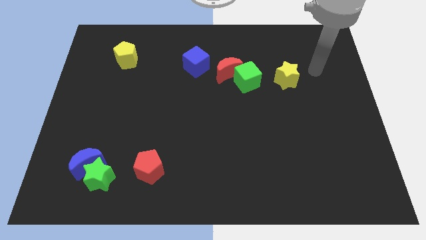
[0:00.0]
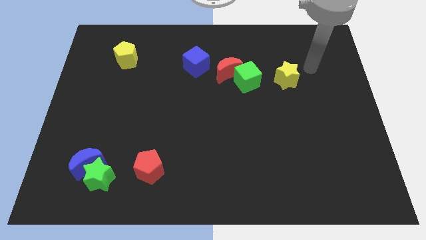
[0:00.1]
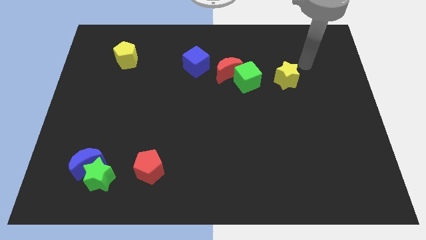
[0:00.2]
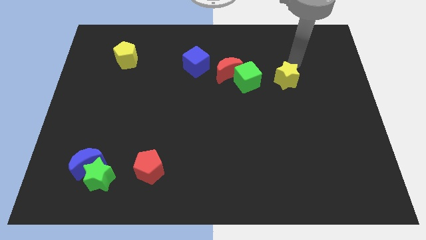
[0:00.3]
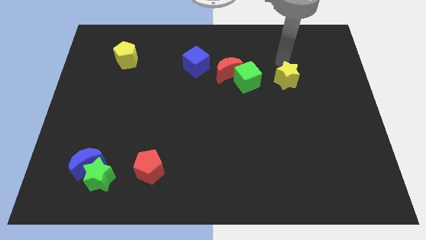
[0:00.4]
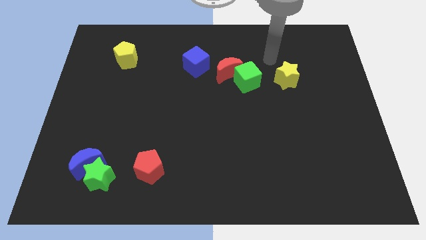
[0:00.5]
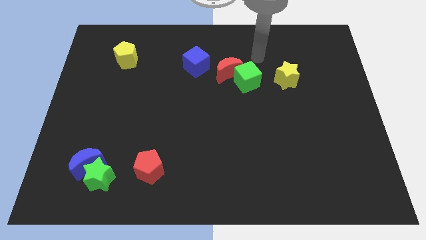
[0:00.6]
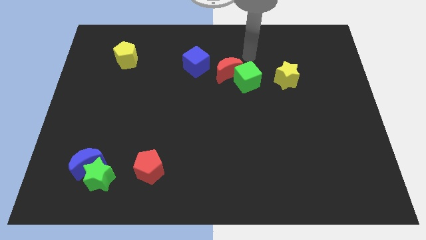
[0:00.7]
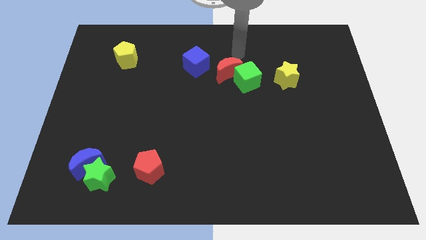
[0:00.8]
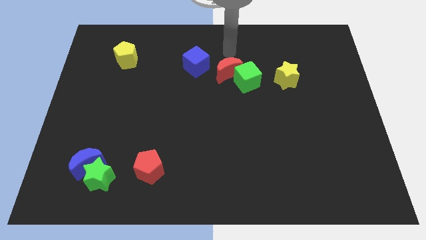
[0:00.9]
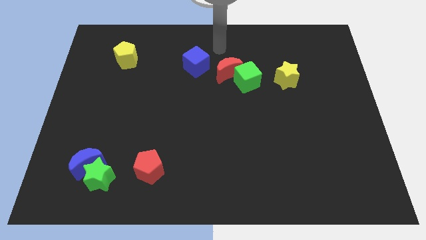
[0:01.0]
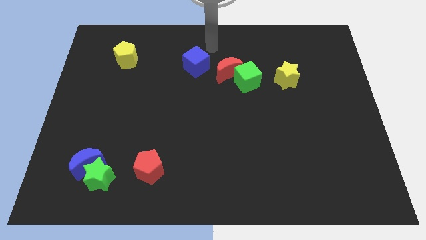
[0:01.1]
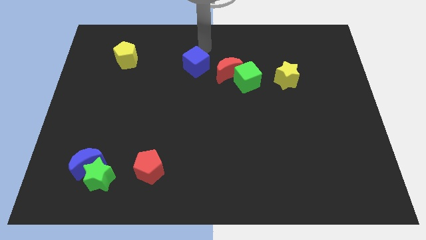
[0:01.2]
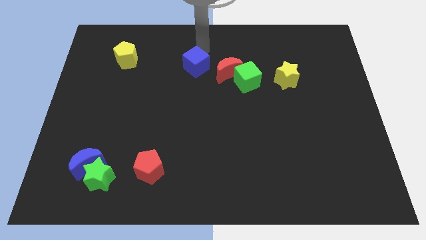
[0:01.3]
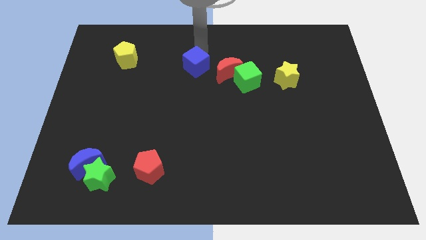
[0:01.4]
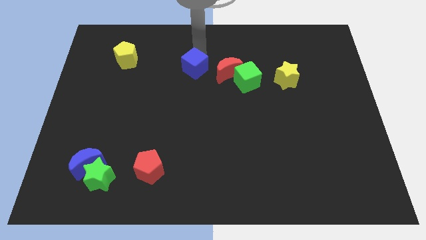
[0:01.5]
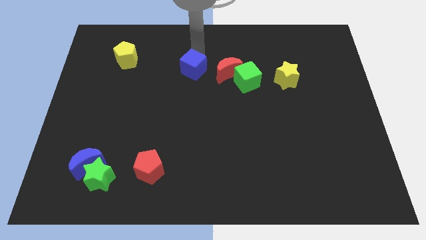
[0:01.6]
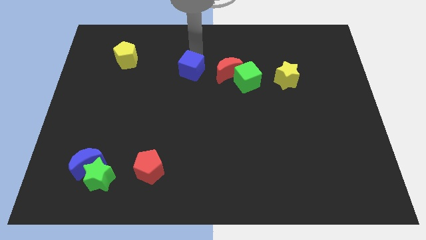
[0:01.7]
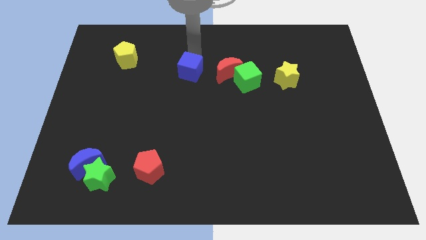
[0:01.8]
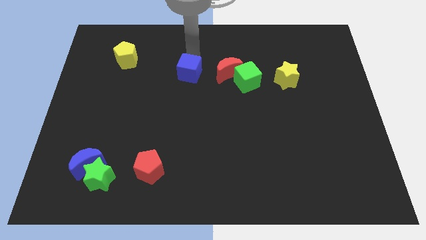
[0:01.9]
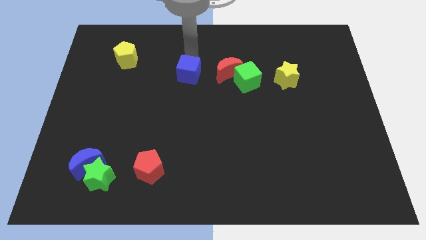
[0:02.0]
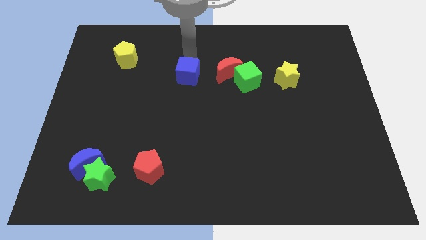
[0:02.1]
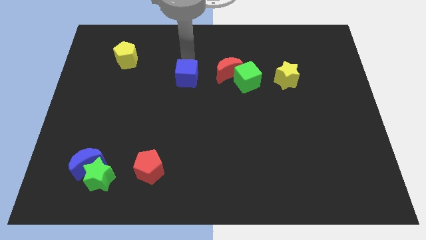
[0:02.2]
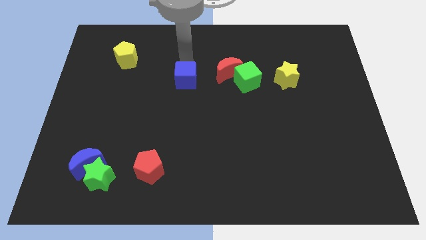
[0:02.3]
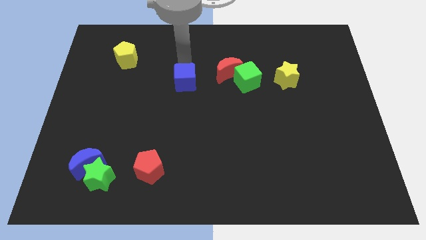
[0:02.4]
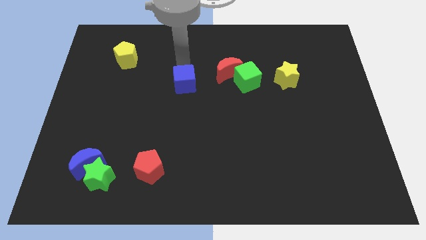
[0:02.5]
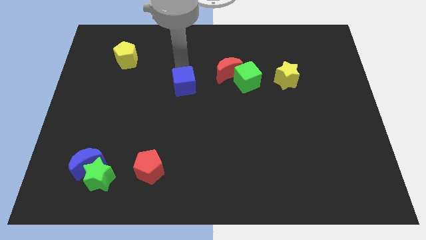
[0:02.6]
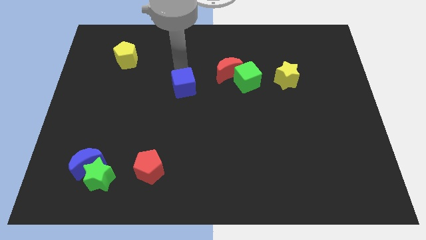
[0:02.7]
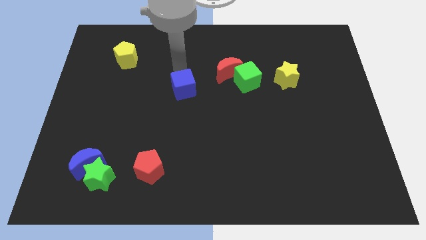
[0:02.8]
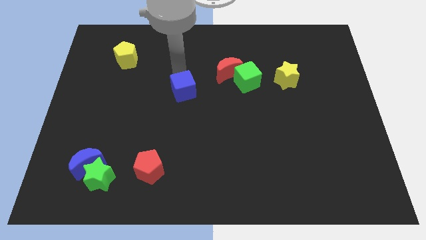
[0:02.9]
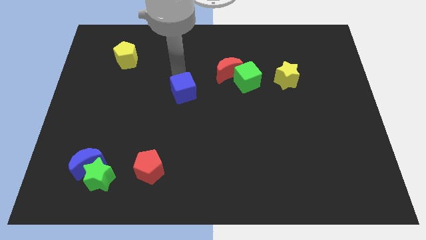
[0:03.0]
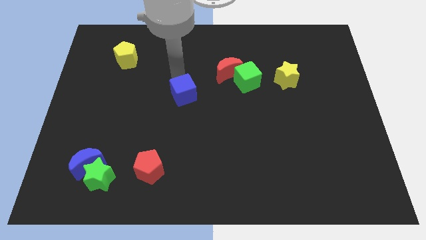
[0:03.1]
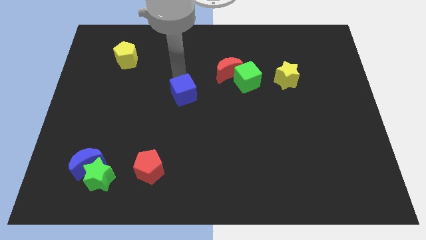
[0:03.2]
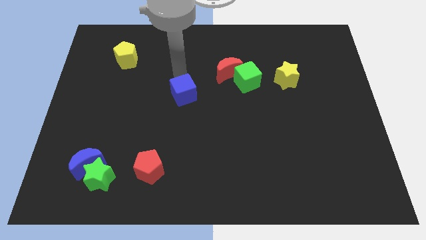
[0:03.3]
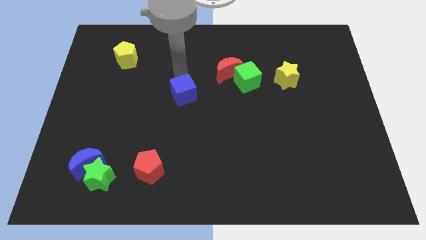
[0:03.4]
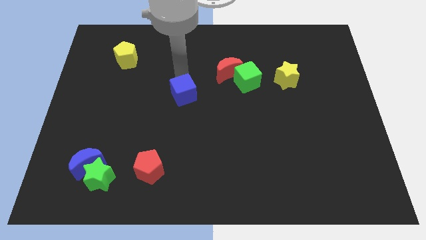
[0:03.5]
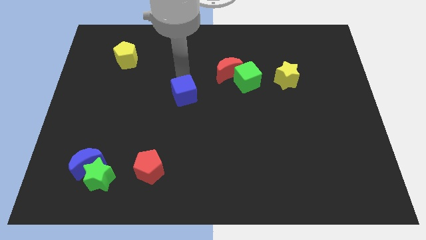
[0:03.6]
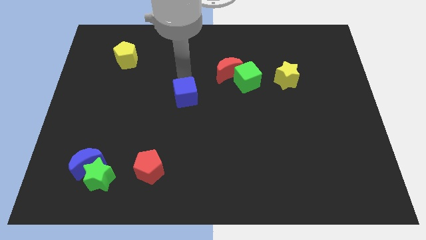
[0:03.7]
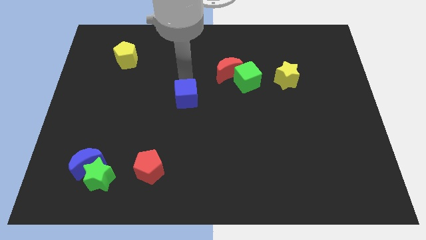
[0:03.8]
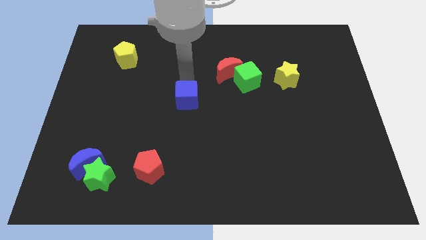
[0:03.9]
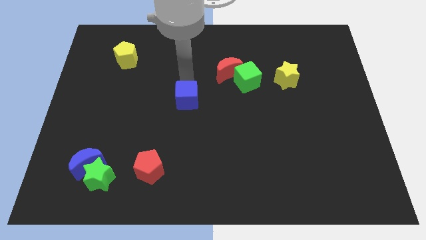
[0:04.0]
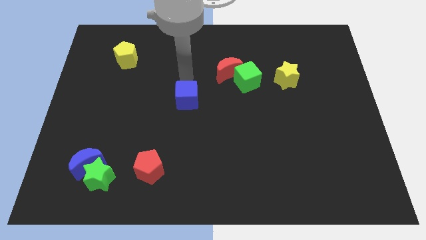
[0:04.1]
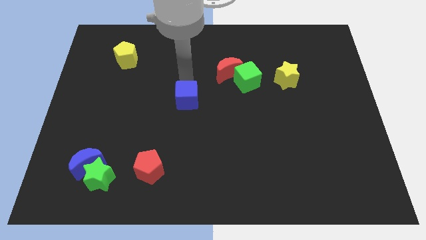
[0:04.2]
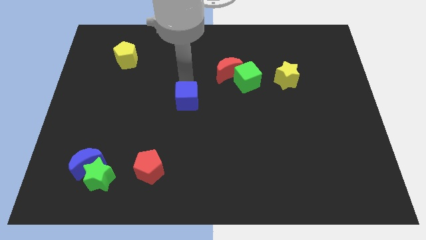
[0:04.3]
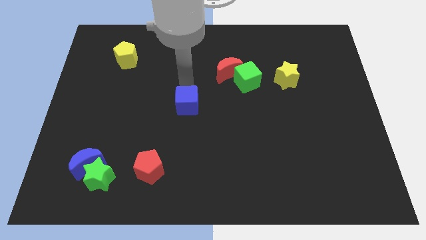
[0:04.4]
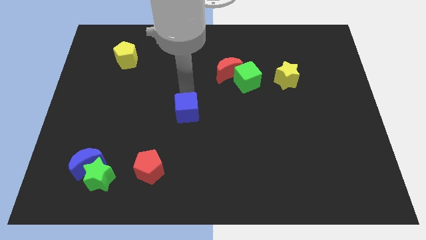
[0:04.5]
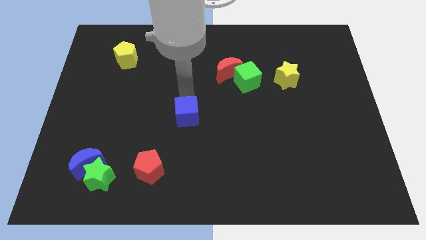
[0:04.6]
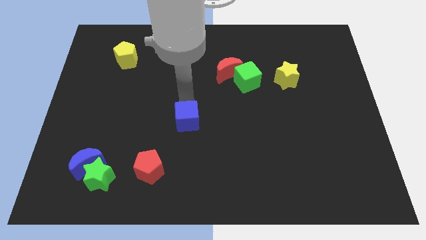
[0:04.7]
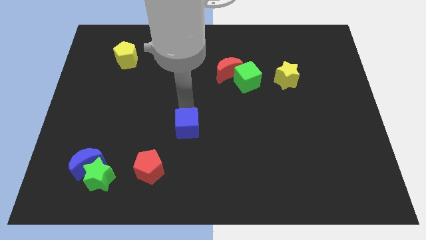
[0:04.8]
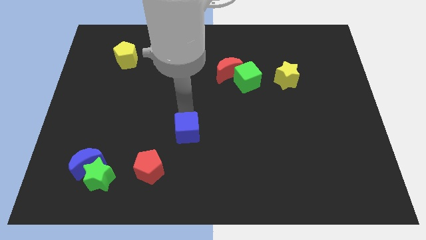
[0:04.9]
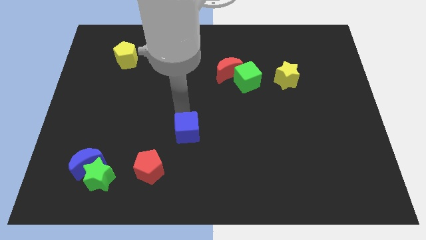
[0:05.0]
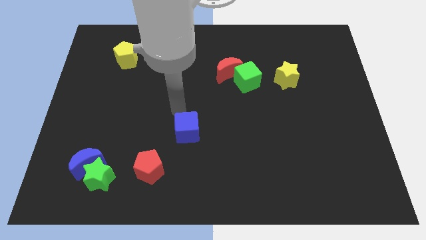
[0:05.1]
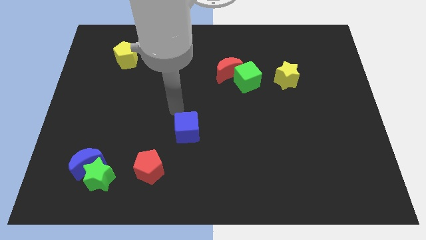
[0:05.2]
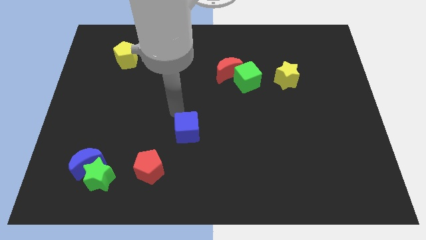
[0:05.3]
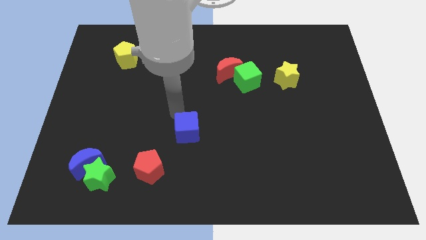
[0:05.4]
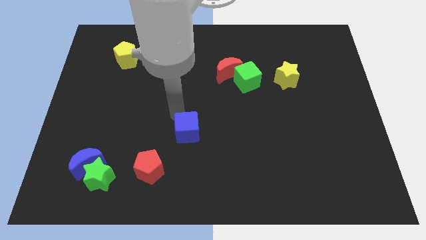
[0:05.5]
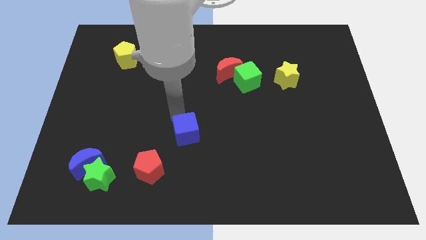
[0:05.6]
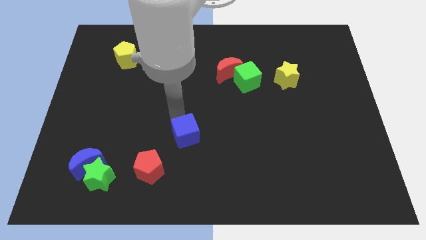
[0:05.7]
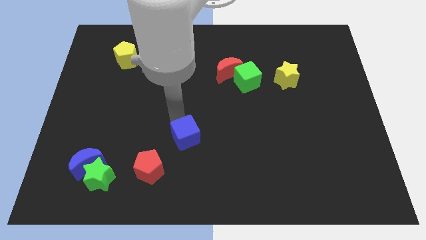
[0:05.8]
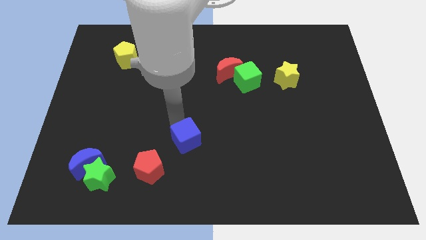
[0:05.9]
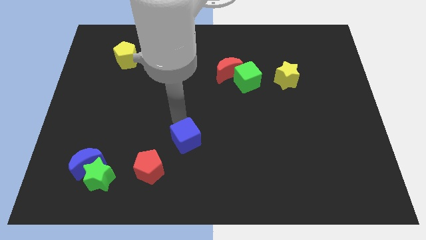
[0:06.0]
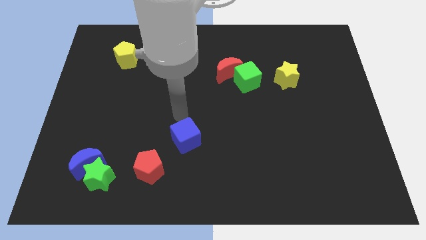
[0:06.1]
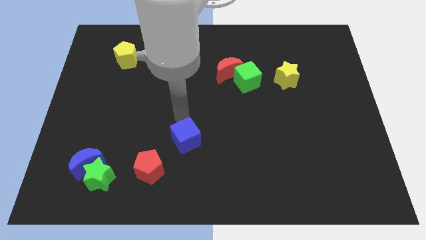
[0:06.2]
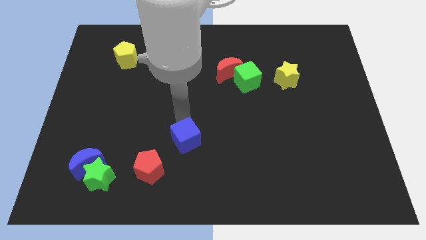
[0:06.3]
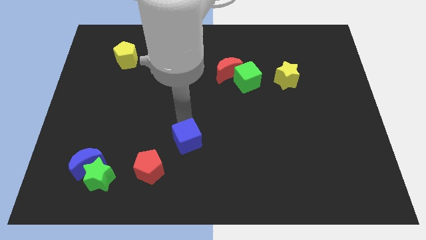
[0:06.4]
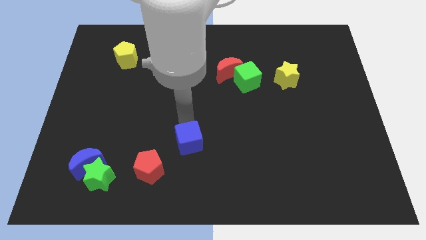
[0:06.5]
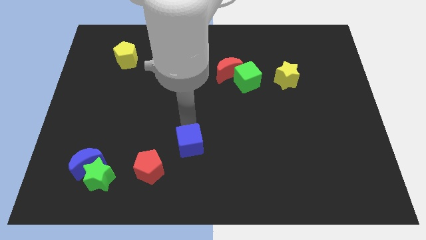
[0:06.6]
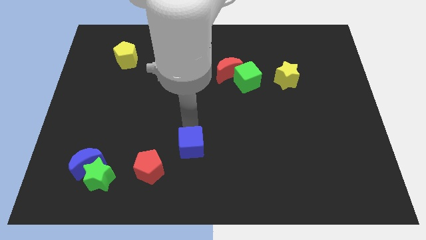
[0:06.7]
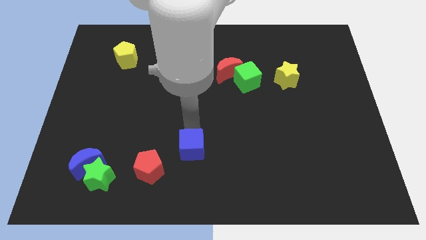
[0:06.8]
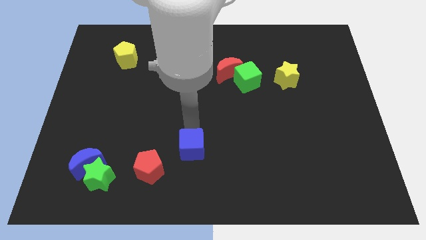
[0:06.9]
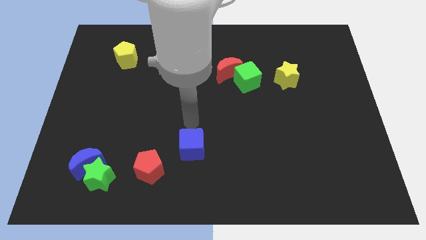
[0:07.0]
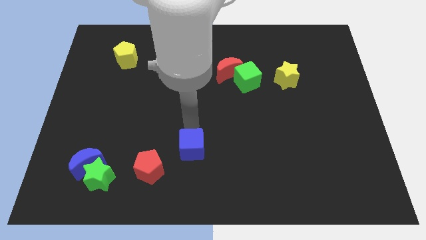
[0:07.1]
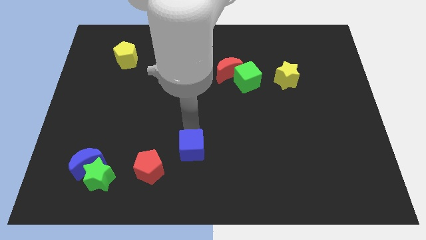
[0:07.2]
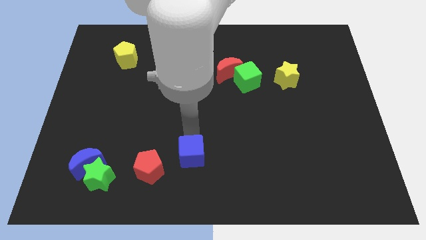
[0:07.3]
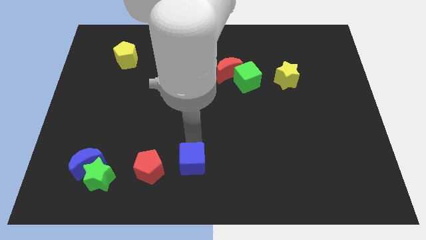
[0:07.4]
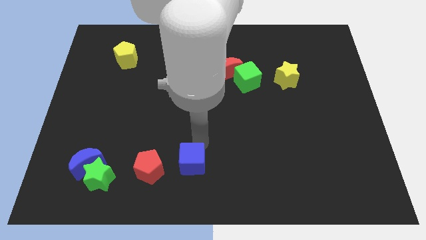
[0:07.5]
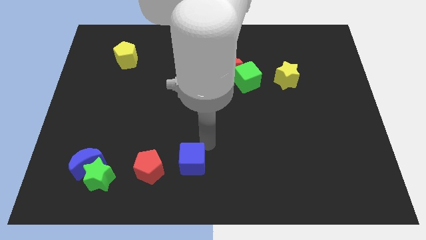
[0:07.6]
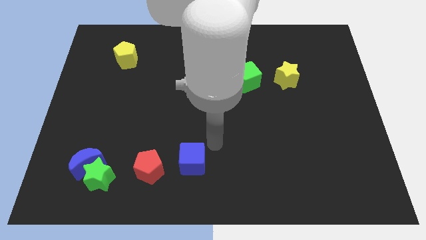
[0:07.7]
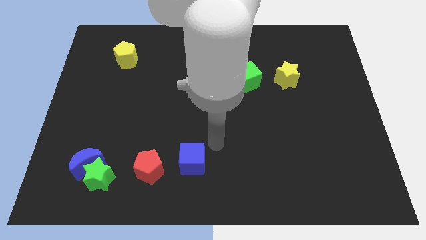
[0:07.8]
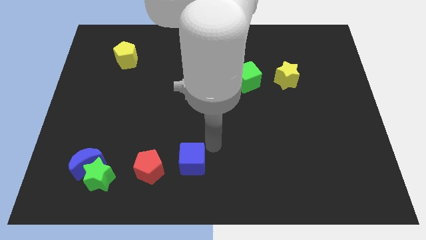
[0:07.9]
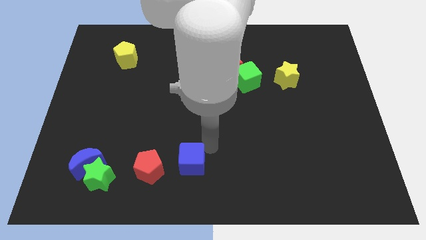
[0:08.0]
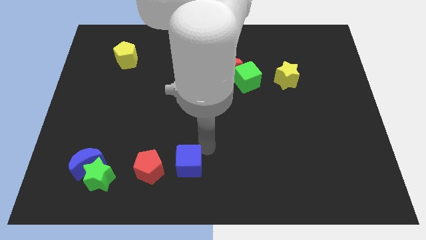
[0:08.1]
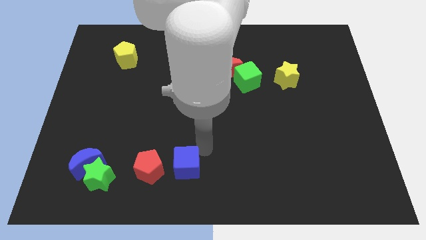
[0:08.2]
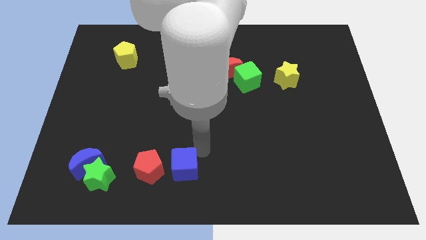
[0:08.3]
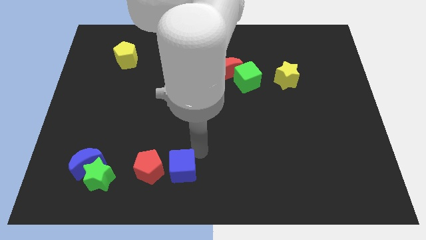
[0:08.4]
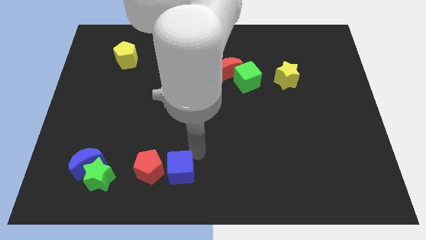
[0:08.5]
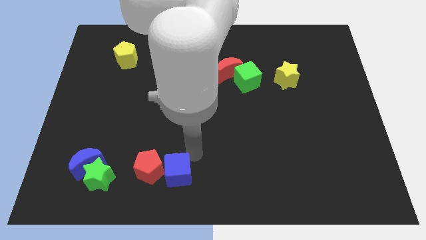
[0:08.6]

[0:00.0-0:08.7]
push the blue cube right of the green star
